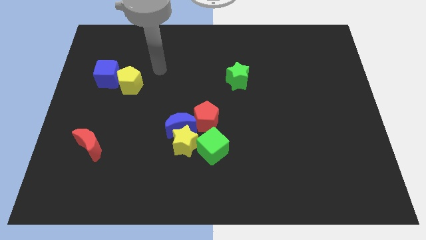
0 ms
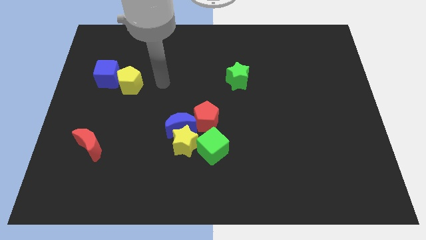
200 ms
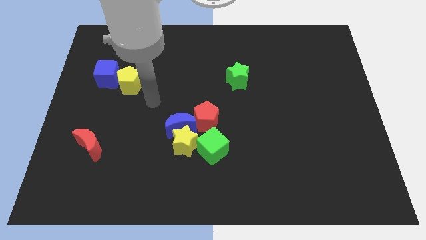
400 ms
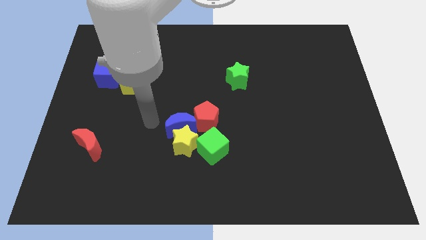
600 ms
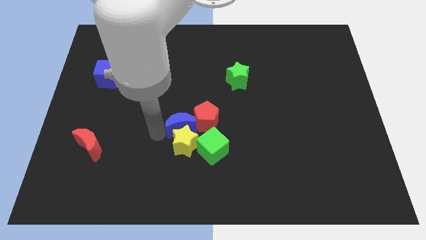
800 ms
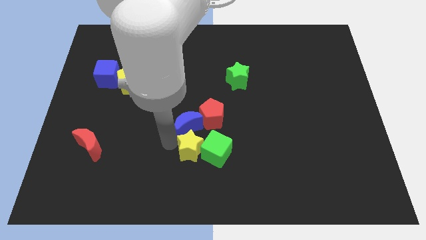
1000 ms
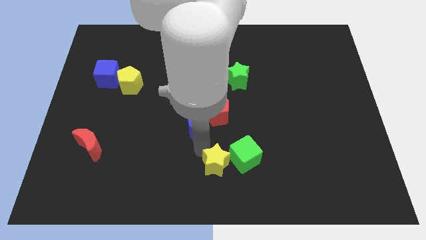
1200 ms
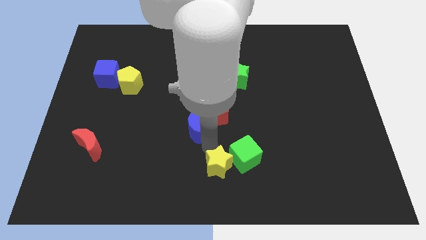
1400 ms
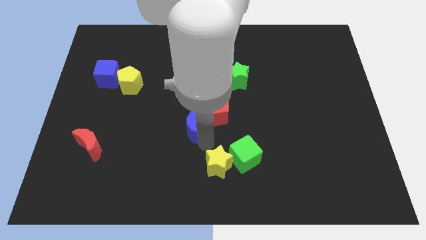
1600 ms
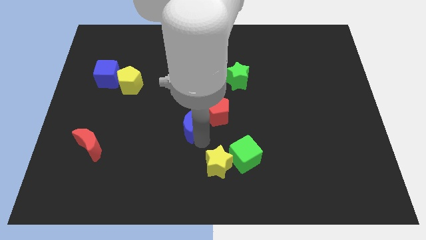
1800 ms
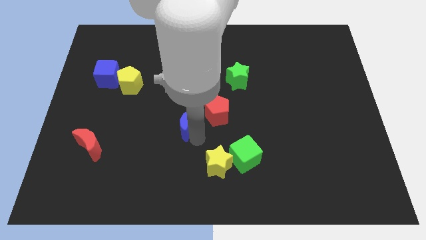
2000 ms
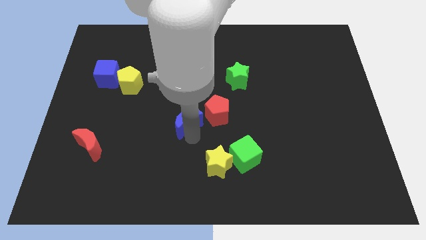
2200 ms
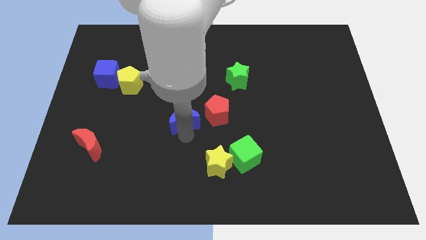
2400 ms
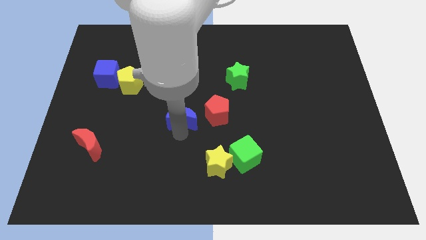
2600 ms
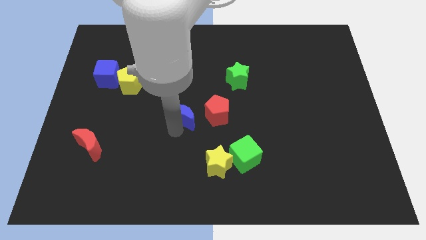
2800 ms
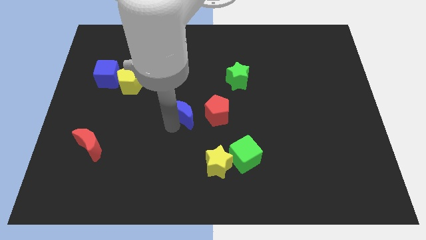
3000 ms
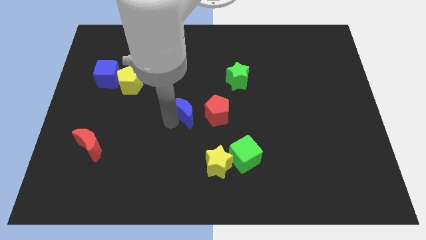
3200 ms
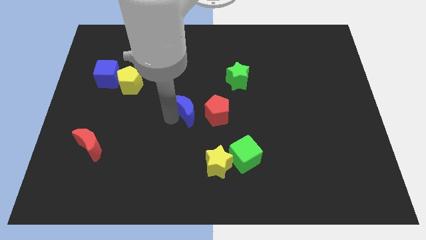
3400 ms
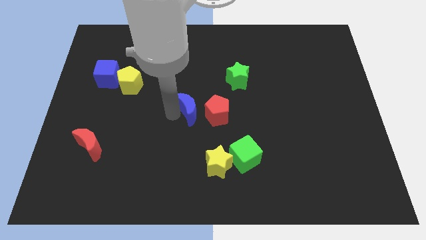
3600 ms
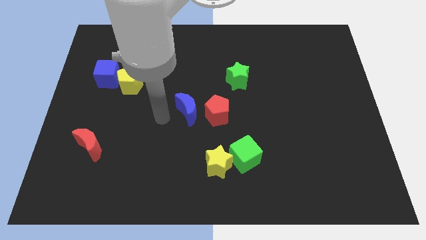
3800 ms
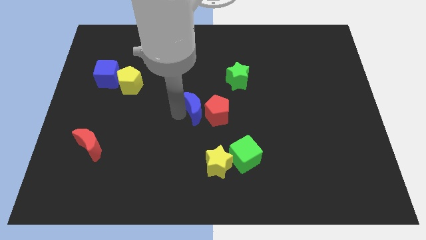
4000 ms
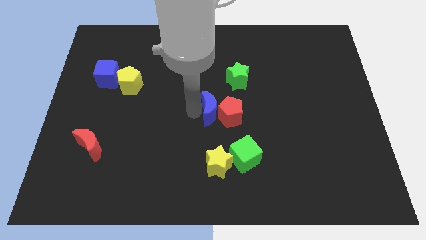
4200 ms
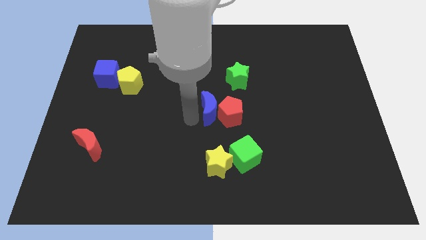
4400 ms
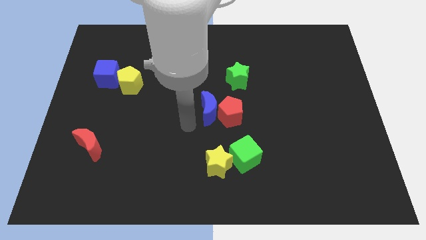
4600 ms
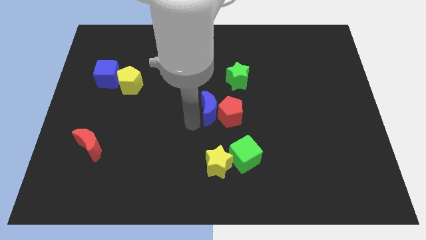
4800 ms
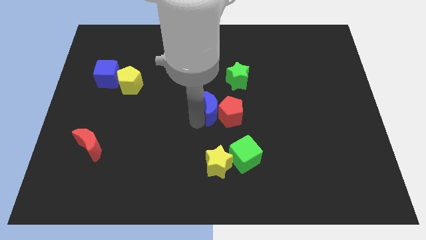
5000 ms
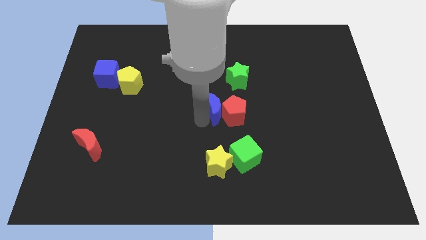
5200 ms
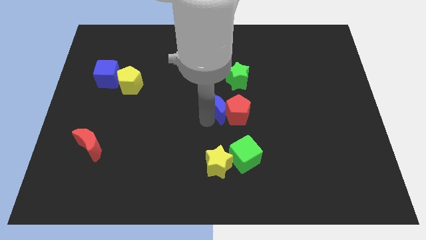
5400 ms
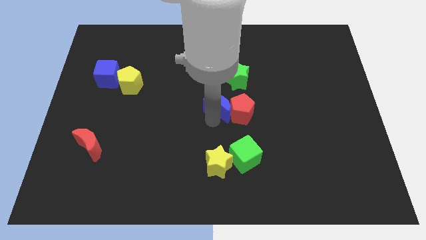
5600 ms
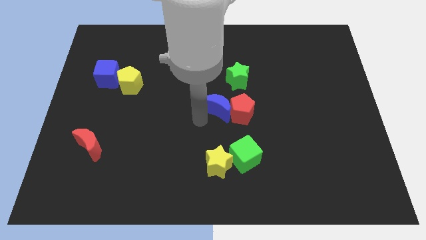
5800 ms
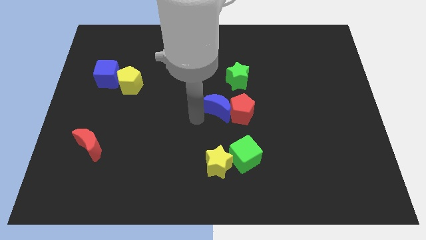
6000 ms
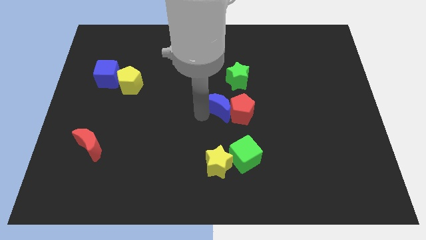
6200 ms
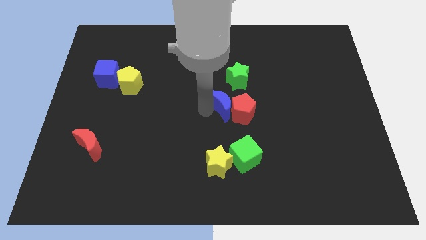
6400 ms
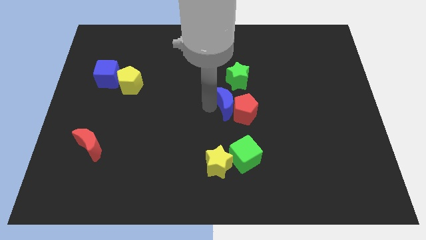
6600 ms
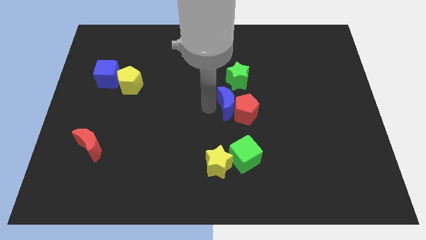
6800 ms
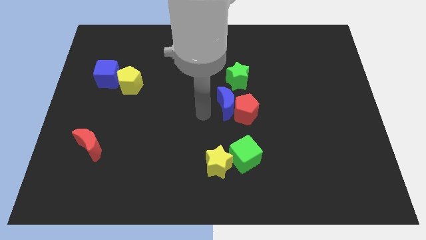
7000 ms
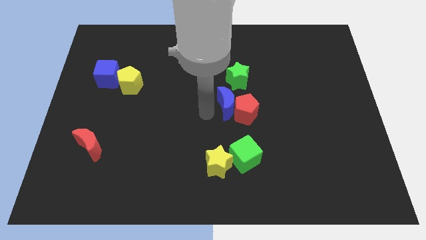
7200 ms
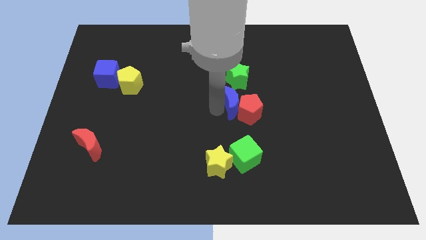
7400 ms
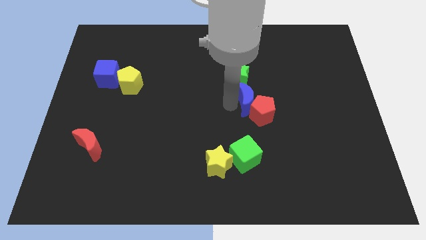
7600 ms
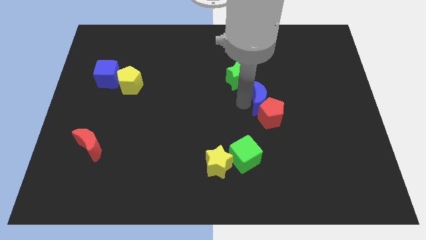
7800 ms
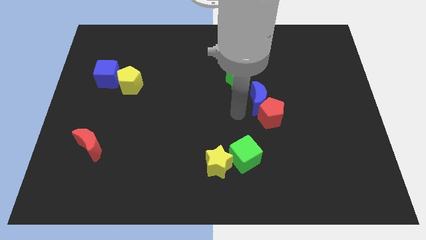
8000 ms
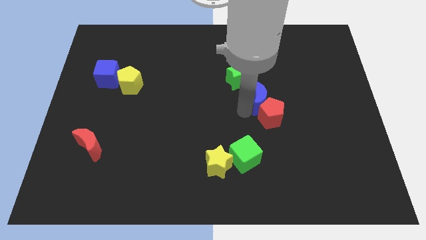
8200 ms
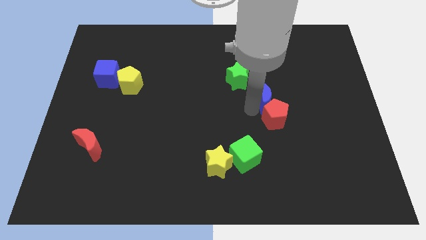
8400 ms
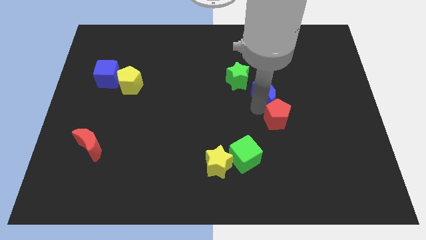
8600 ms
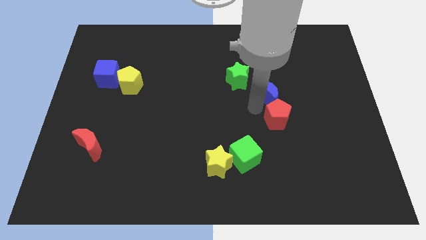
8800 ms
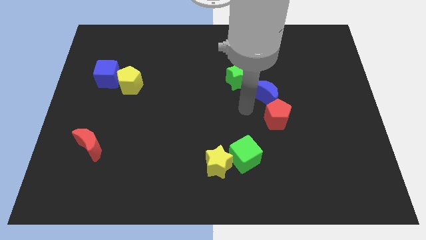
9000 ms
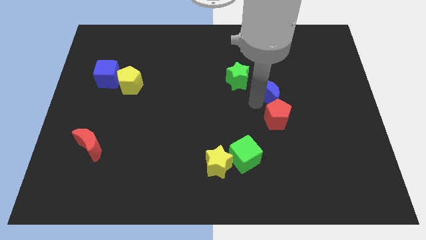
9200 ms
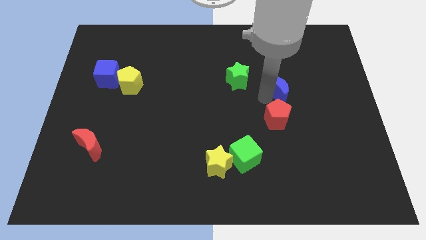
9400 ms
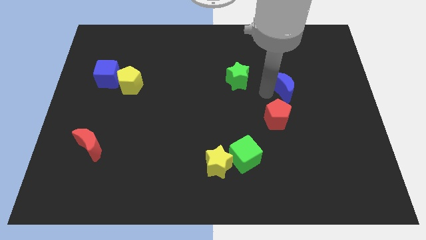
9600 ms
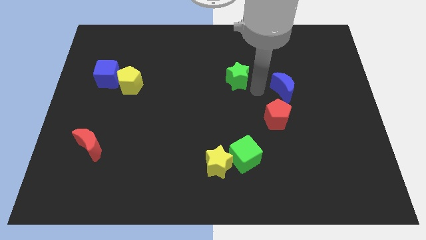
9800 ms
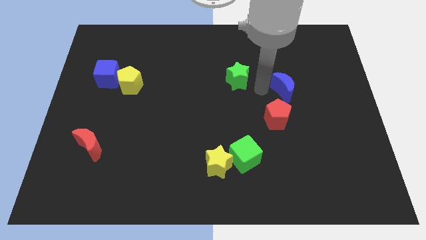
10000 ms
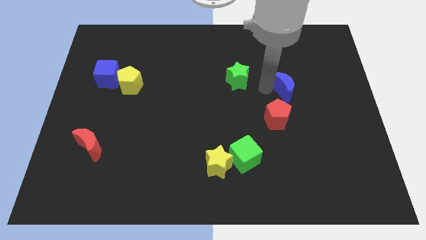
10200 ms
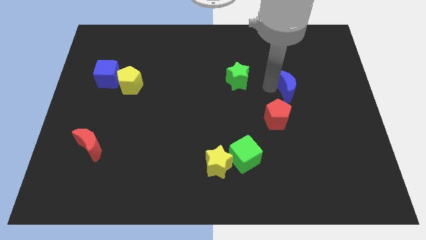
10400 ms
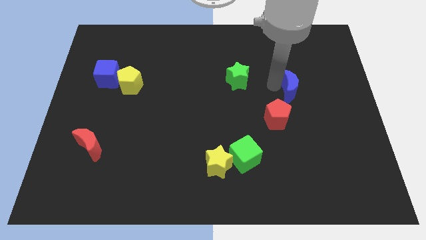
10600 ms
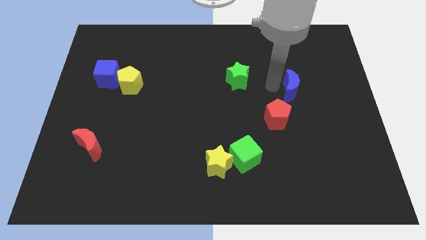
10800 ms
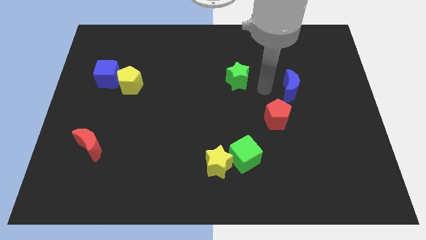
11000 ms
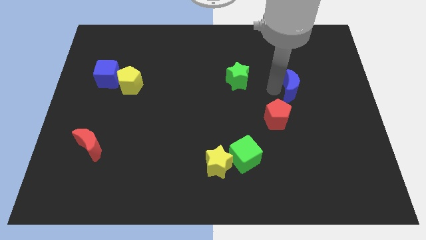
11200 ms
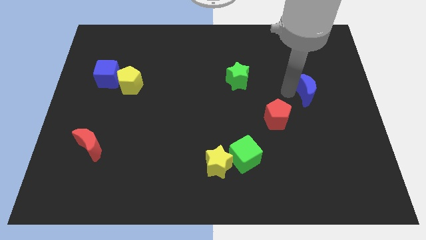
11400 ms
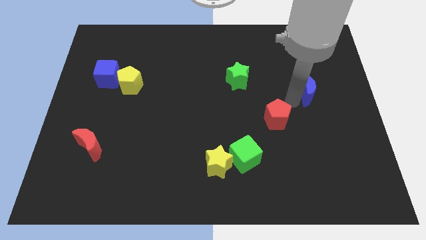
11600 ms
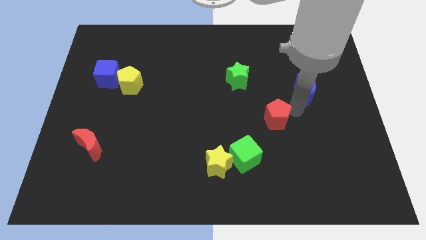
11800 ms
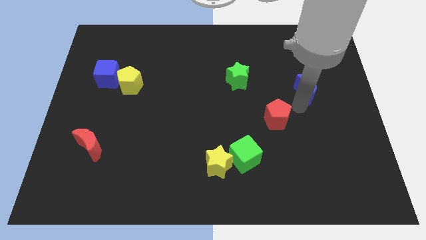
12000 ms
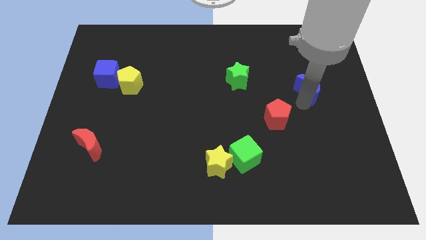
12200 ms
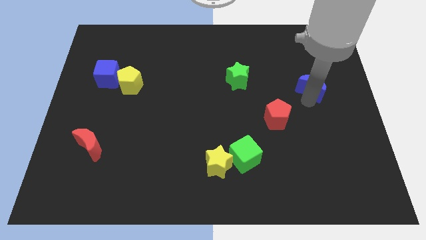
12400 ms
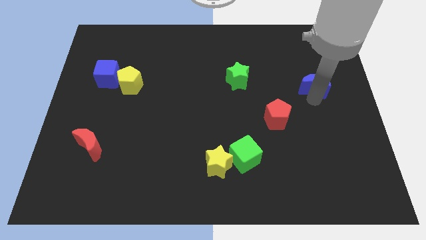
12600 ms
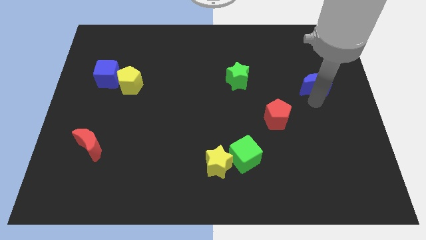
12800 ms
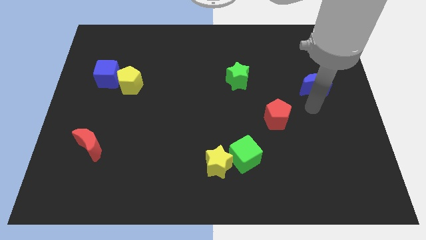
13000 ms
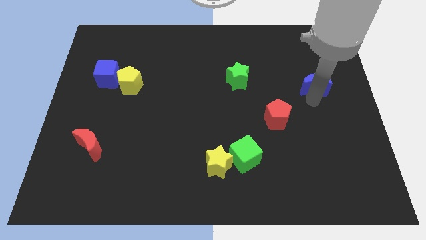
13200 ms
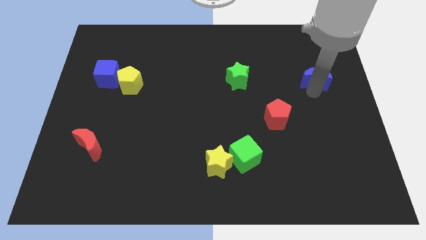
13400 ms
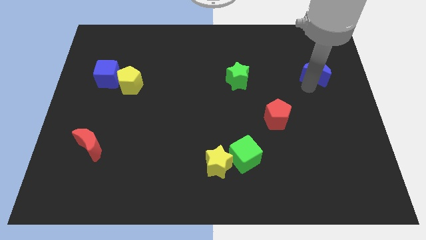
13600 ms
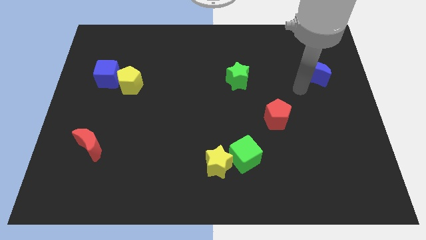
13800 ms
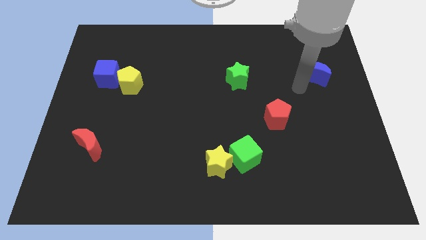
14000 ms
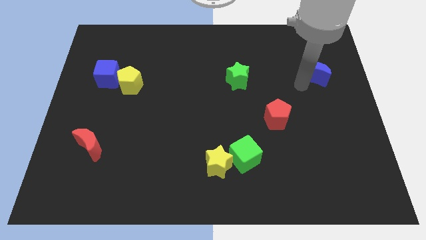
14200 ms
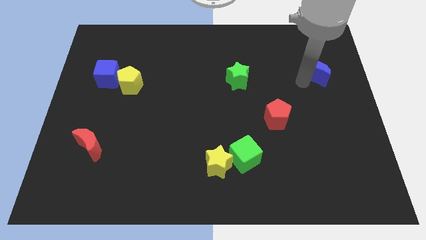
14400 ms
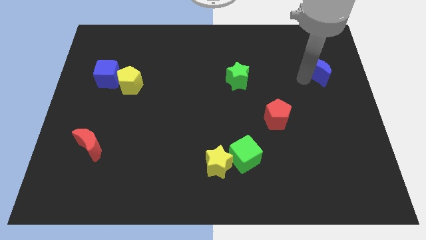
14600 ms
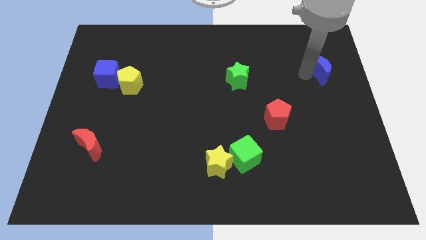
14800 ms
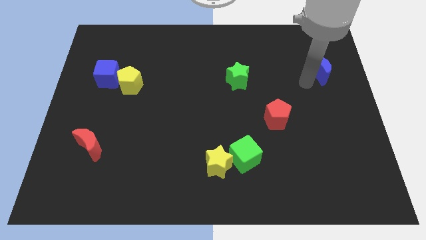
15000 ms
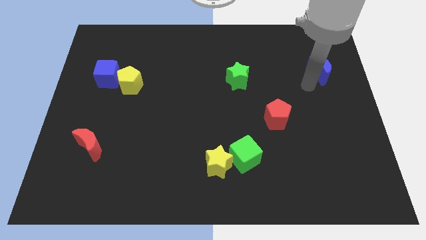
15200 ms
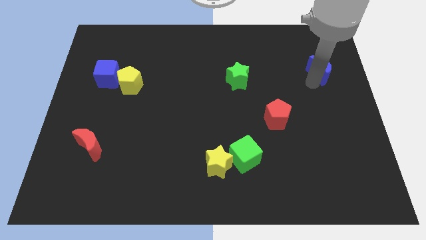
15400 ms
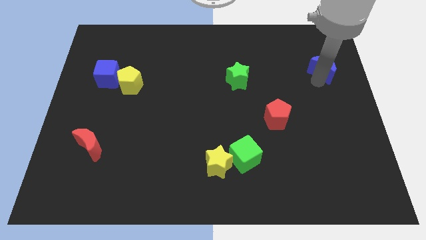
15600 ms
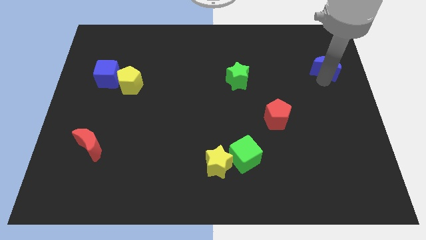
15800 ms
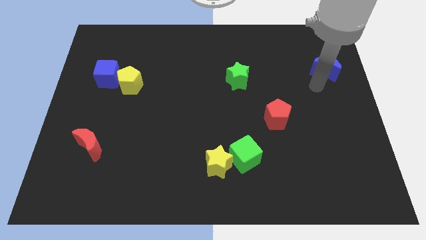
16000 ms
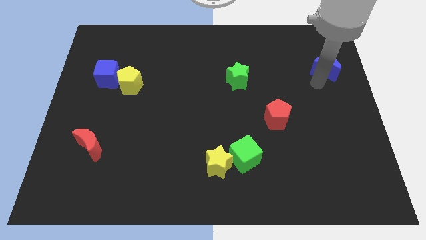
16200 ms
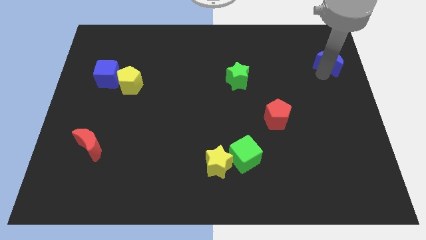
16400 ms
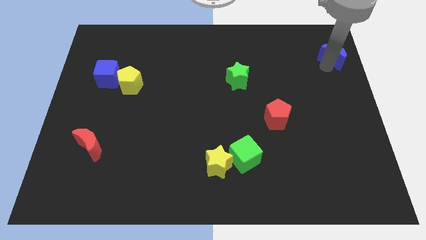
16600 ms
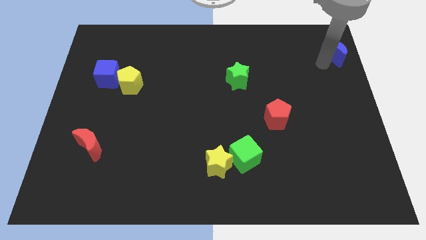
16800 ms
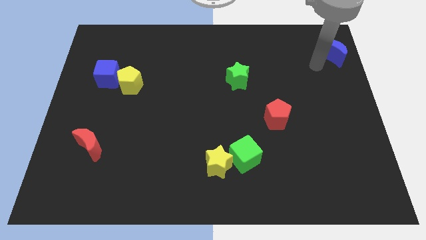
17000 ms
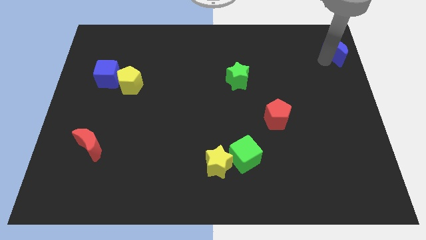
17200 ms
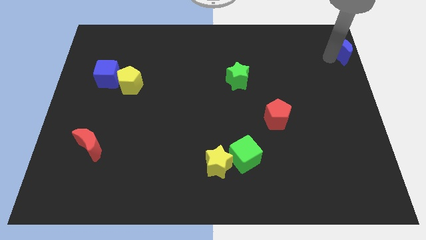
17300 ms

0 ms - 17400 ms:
move the blue moon to the top right corner
